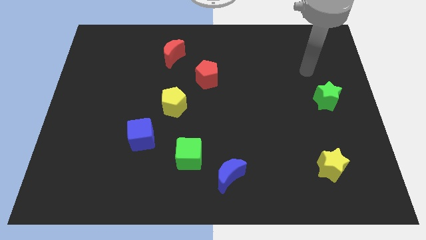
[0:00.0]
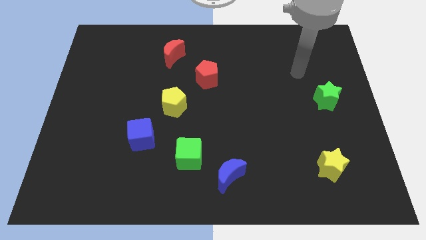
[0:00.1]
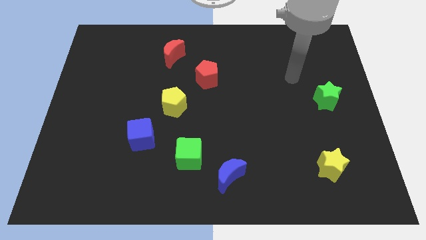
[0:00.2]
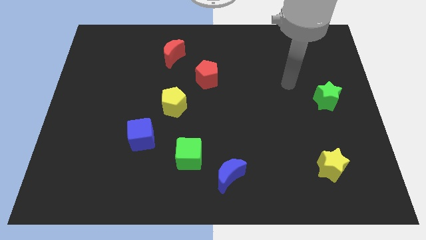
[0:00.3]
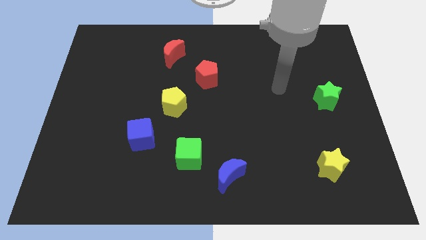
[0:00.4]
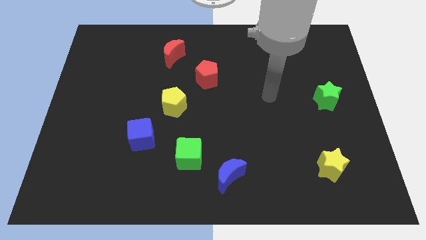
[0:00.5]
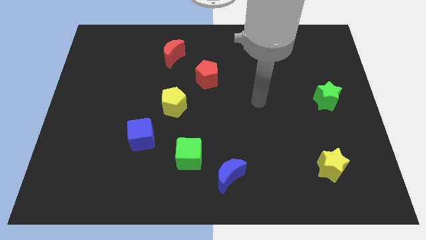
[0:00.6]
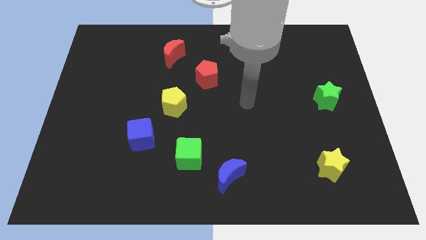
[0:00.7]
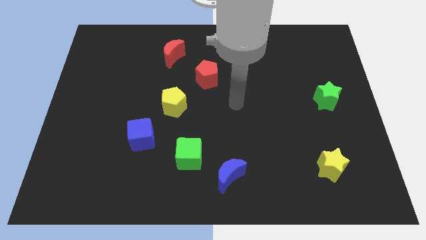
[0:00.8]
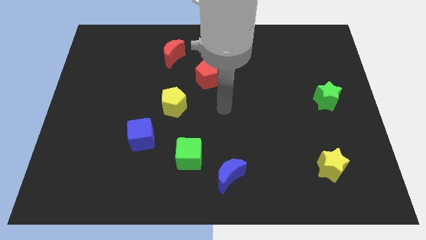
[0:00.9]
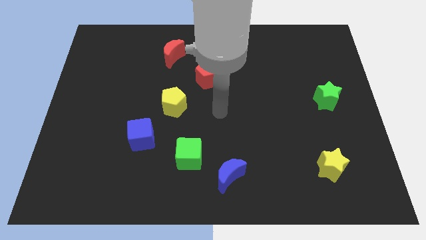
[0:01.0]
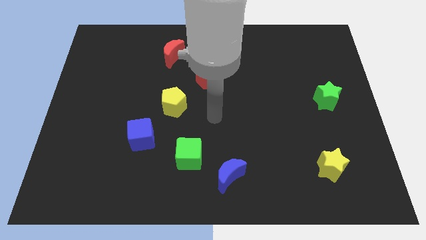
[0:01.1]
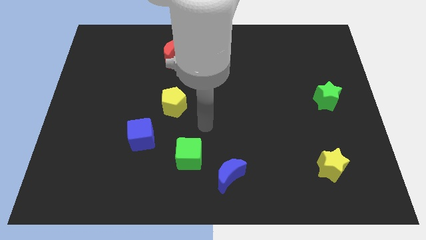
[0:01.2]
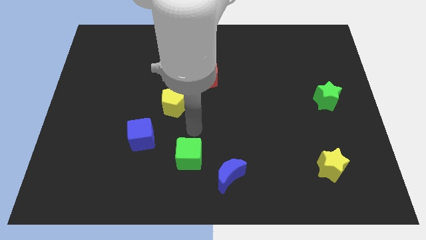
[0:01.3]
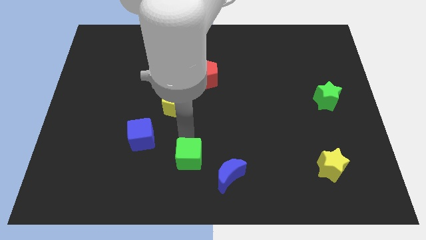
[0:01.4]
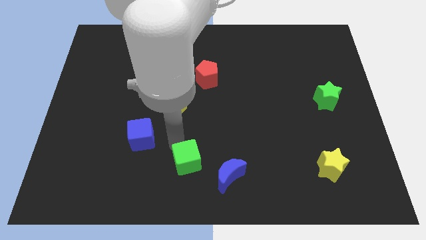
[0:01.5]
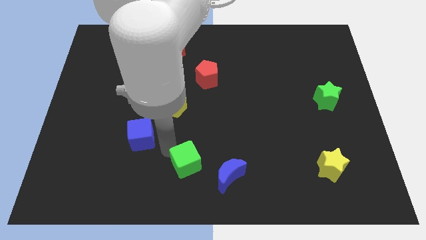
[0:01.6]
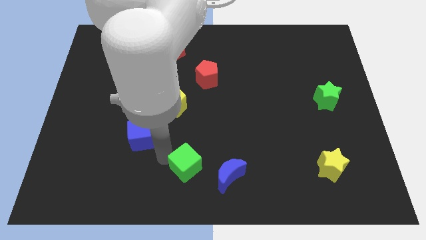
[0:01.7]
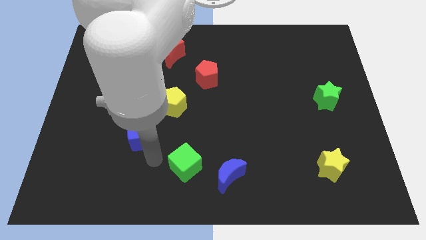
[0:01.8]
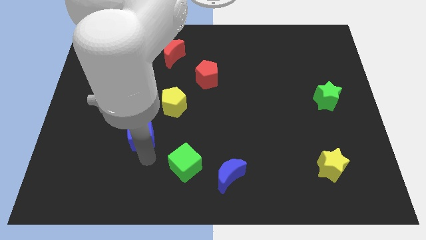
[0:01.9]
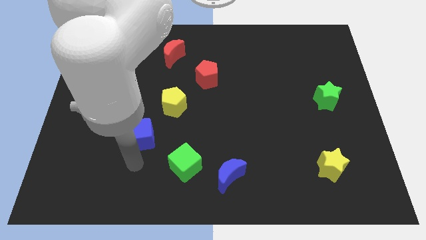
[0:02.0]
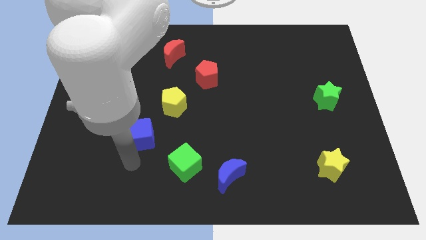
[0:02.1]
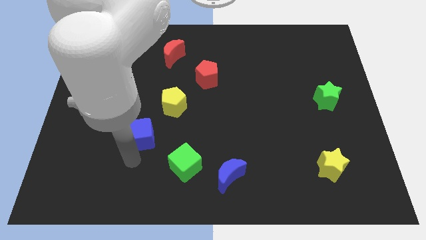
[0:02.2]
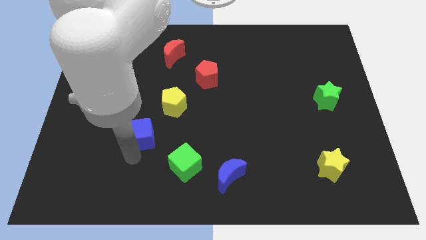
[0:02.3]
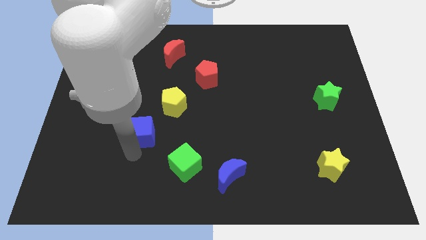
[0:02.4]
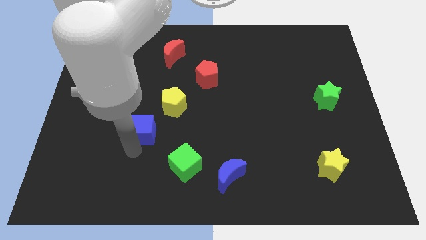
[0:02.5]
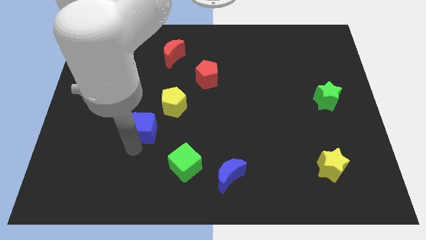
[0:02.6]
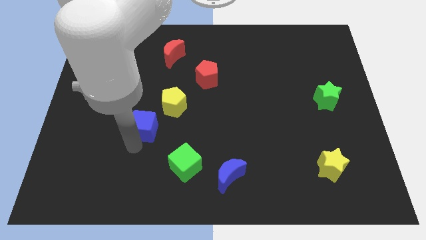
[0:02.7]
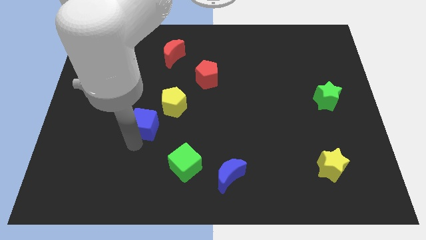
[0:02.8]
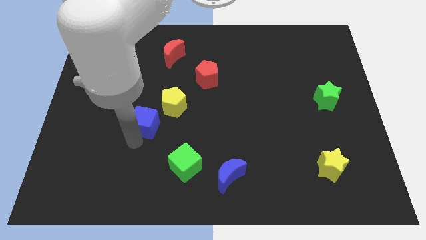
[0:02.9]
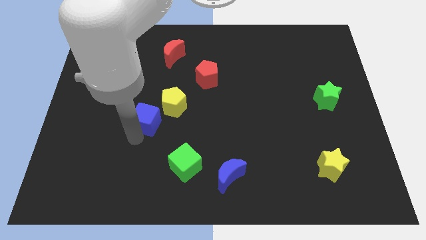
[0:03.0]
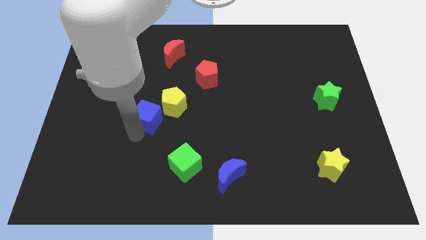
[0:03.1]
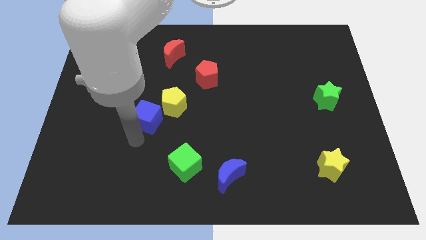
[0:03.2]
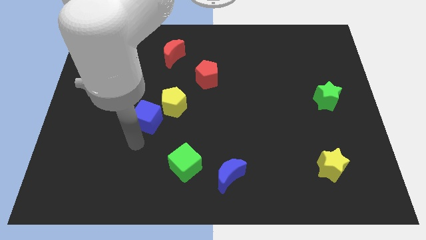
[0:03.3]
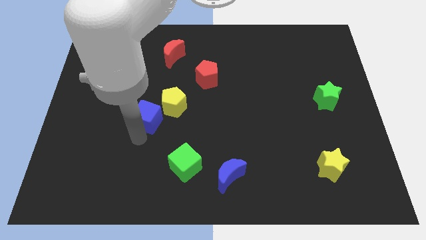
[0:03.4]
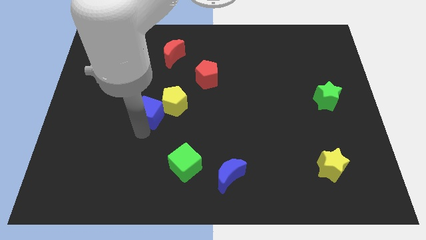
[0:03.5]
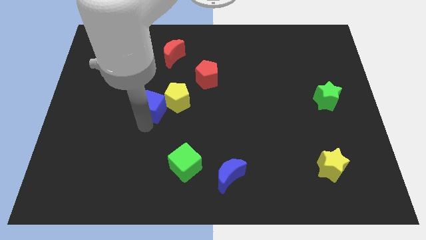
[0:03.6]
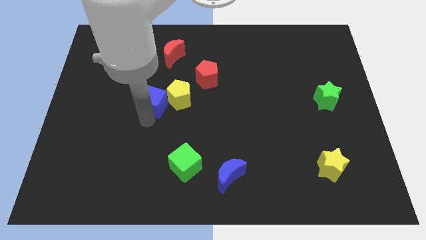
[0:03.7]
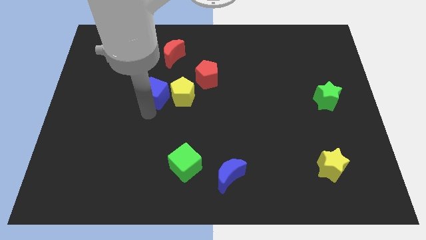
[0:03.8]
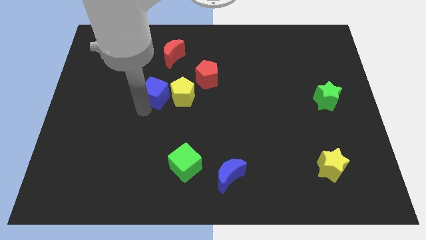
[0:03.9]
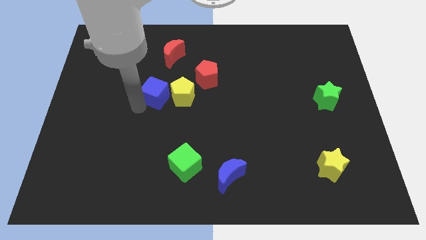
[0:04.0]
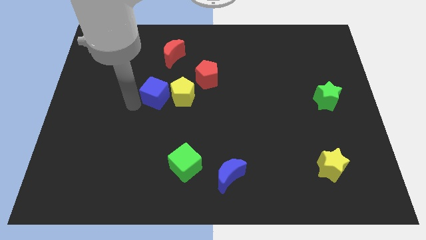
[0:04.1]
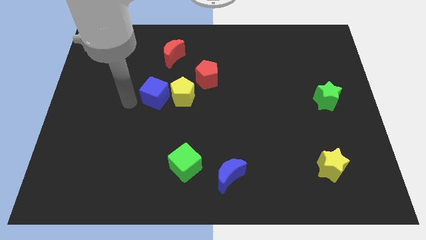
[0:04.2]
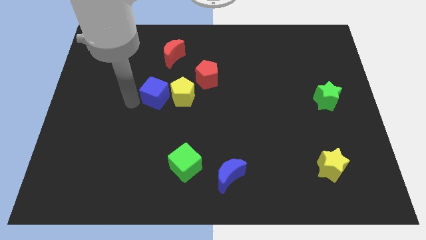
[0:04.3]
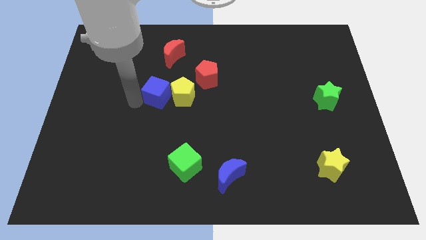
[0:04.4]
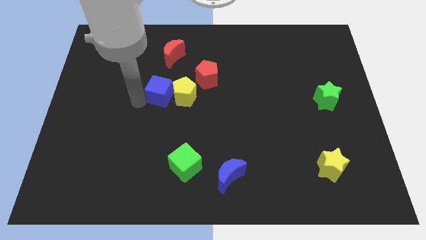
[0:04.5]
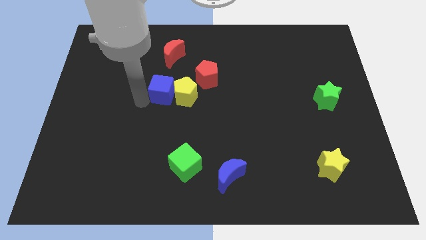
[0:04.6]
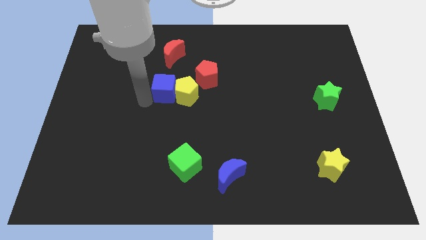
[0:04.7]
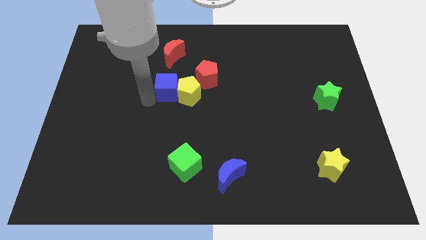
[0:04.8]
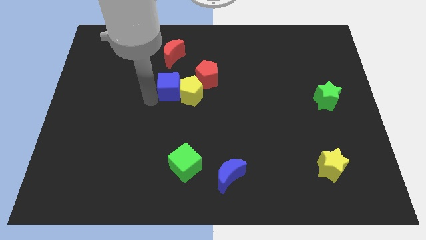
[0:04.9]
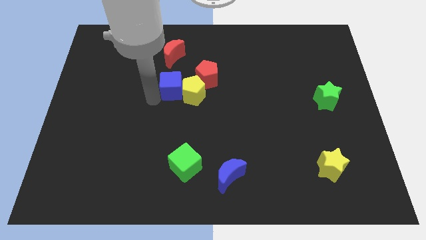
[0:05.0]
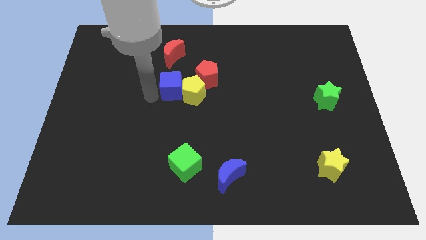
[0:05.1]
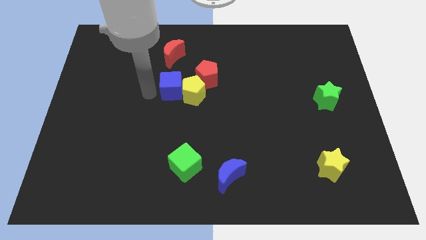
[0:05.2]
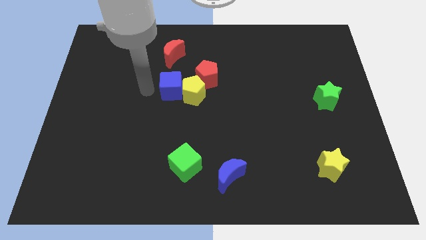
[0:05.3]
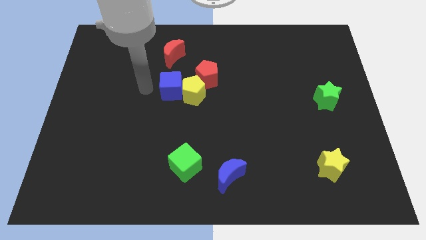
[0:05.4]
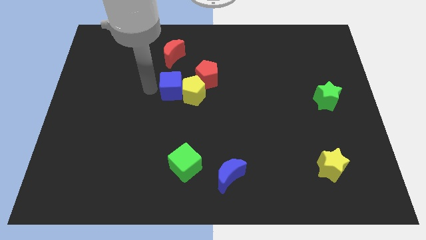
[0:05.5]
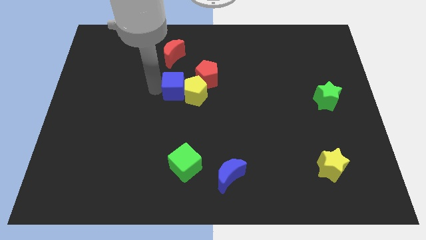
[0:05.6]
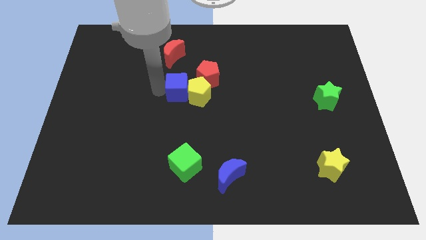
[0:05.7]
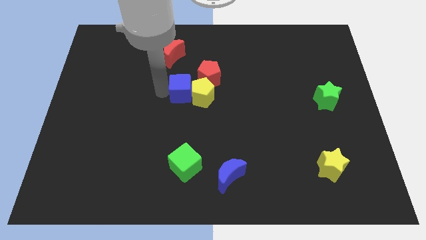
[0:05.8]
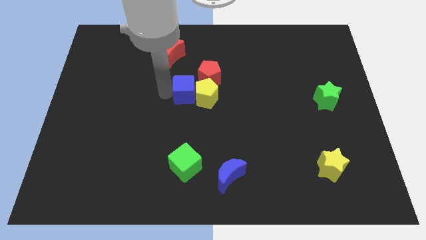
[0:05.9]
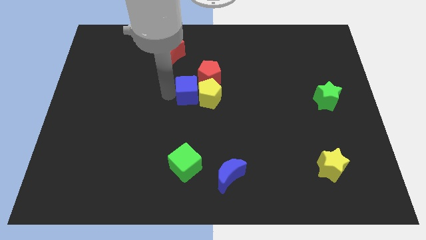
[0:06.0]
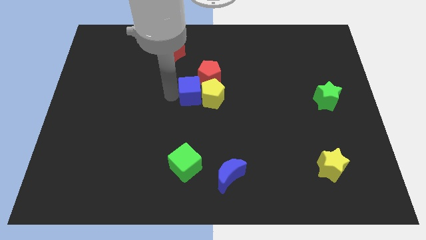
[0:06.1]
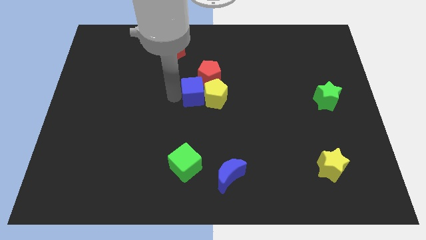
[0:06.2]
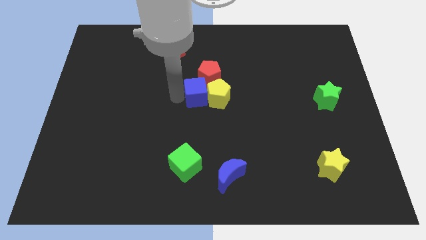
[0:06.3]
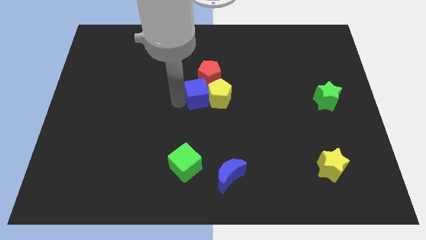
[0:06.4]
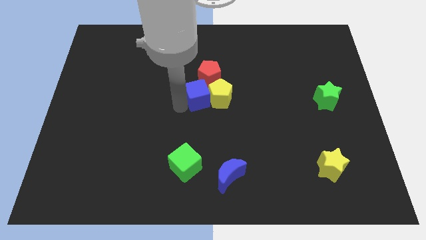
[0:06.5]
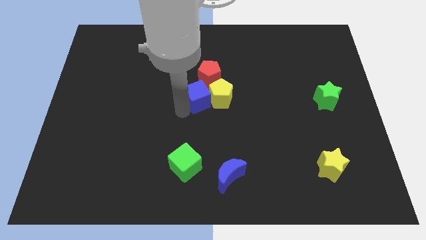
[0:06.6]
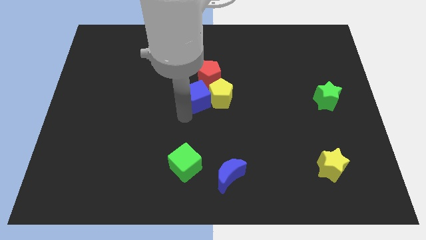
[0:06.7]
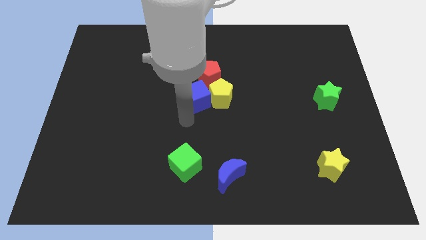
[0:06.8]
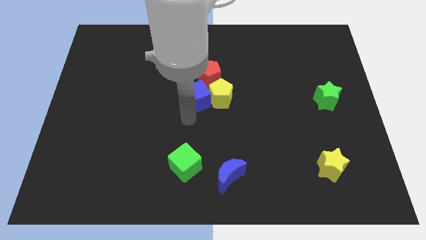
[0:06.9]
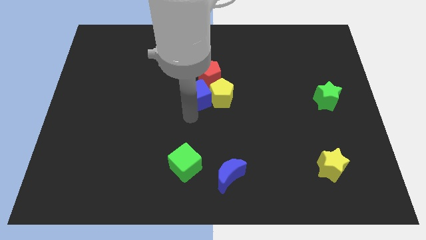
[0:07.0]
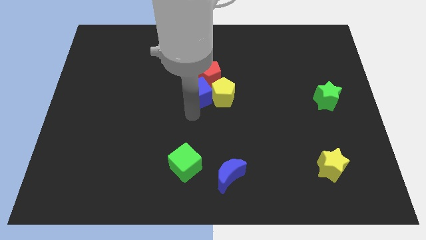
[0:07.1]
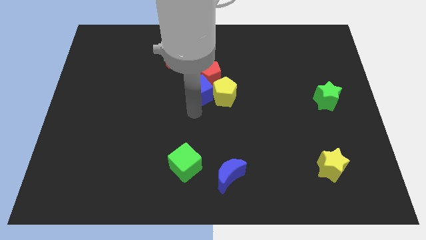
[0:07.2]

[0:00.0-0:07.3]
push the blue cube close to the red pentagon
